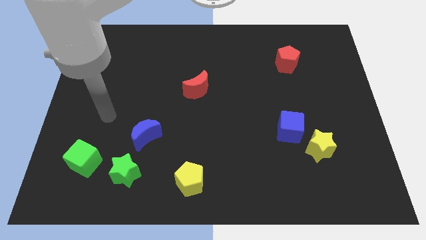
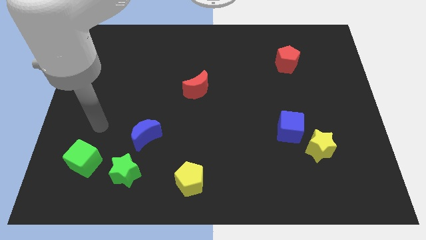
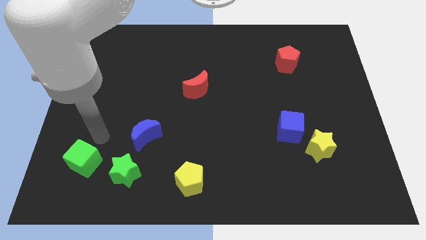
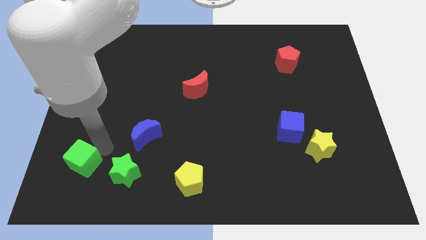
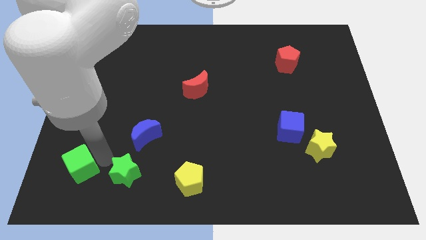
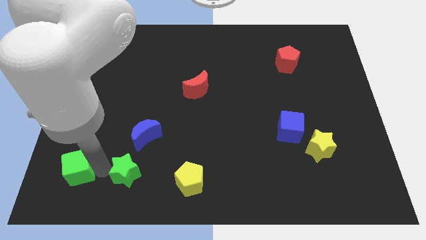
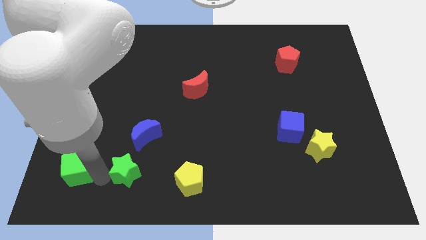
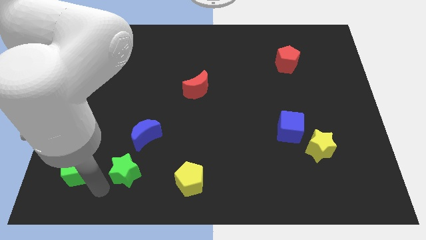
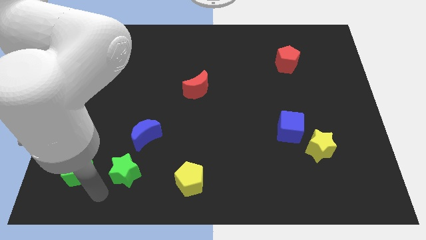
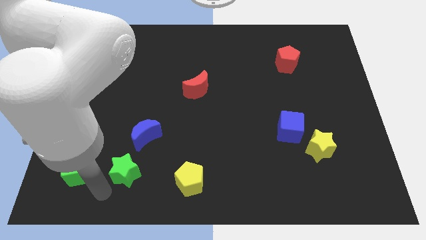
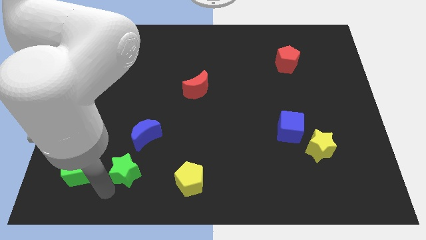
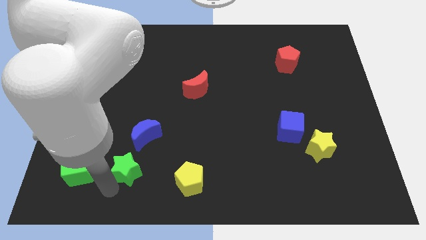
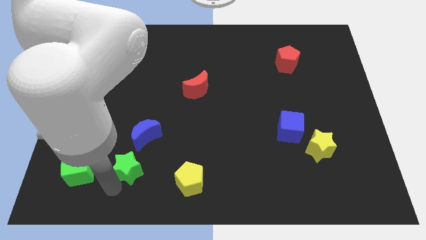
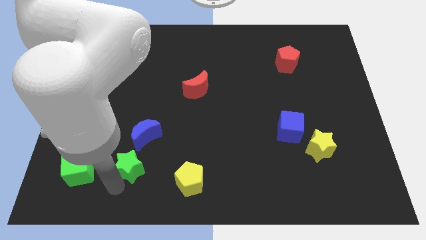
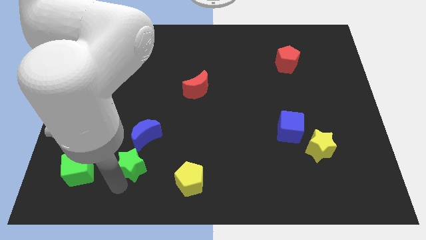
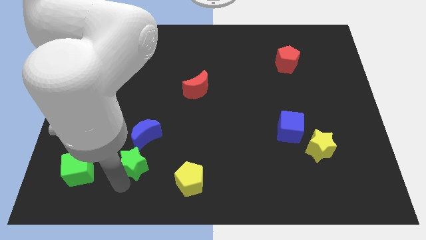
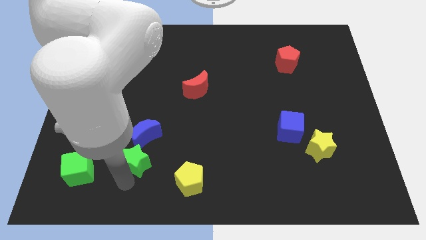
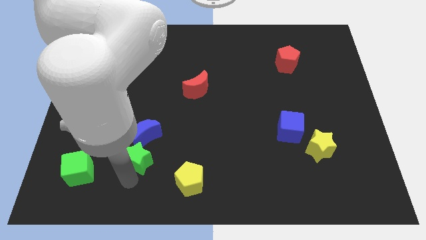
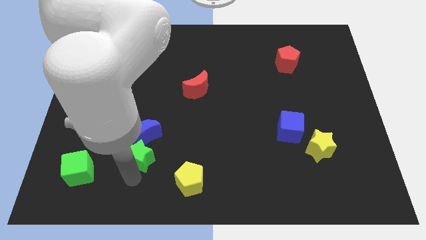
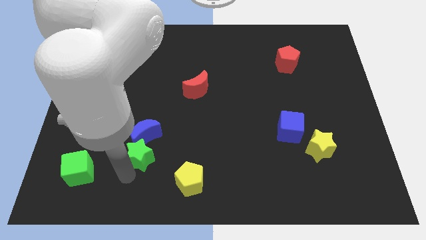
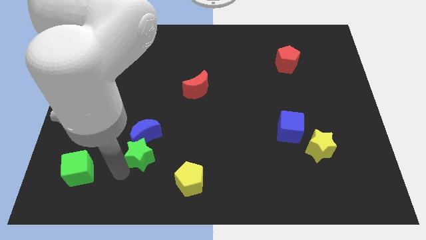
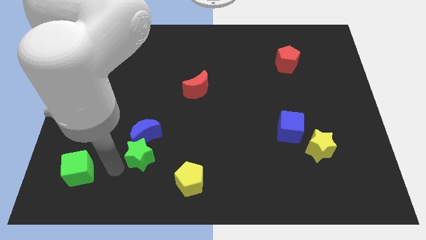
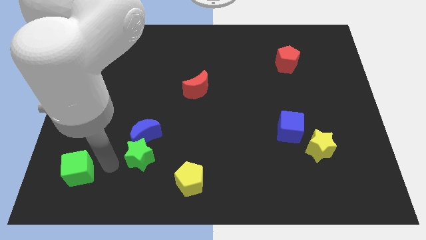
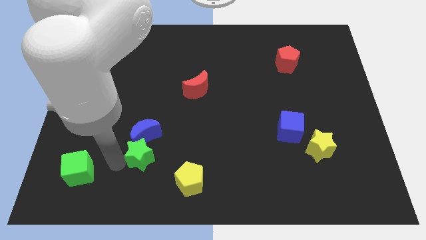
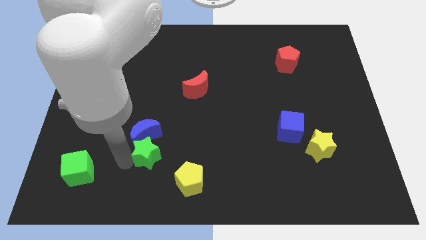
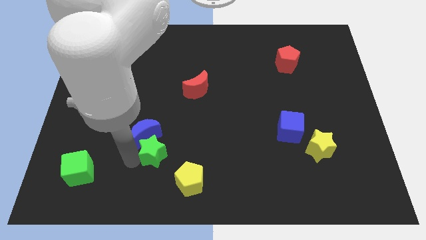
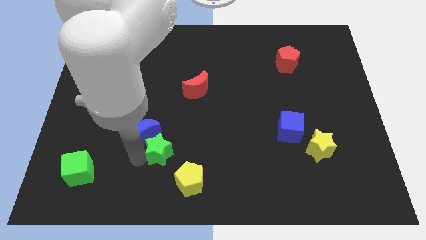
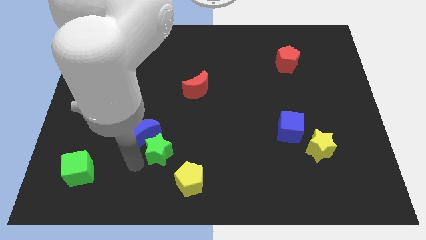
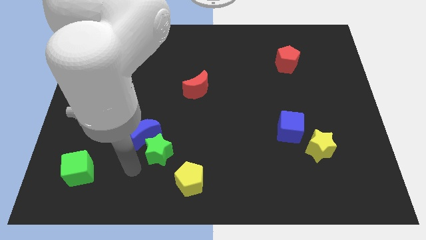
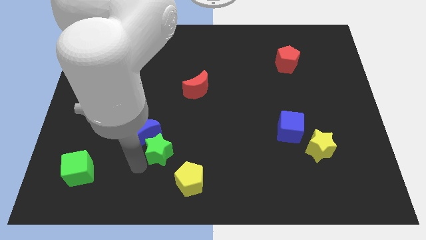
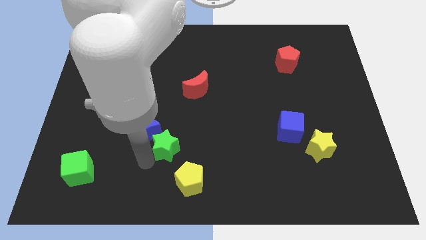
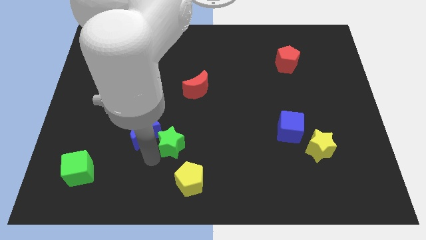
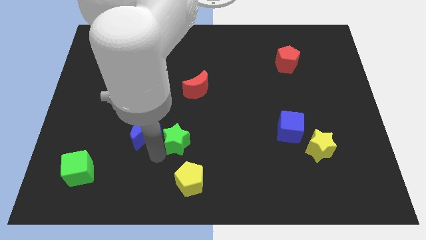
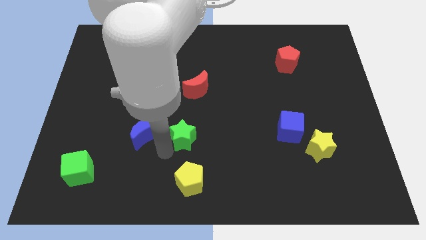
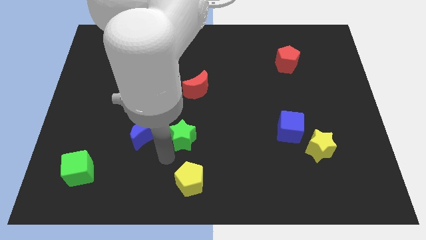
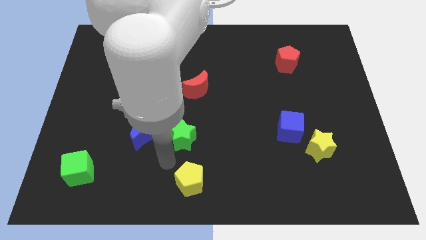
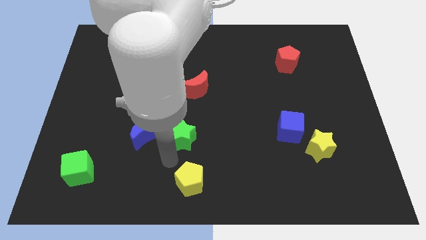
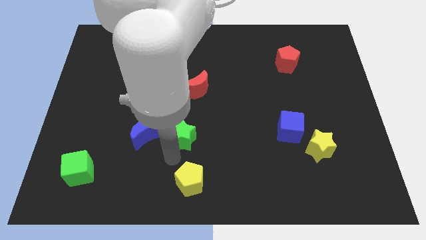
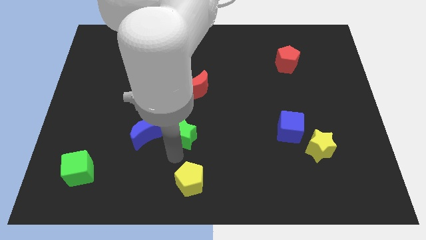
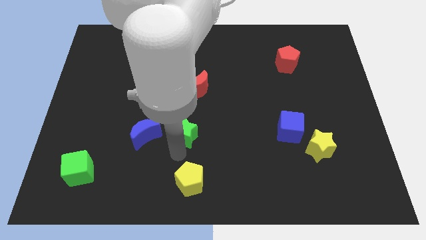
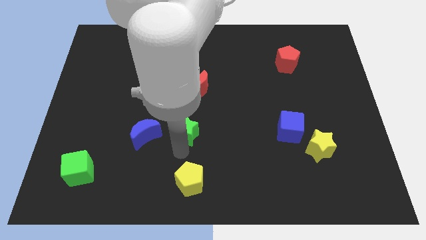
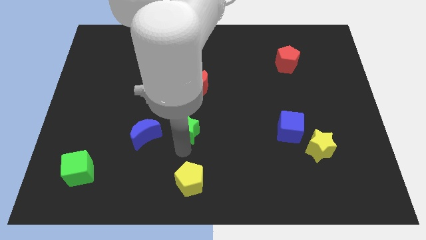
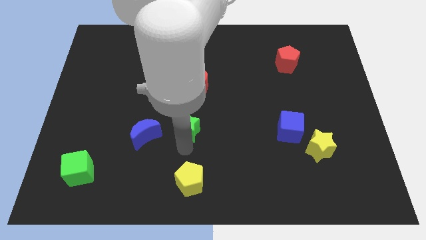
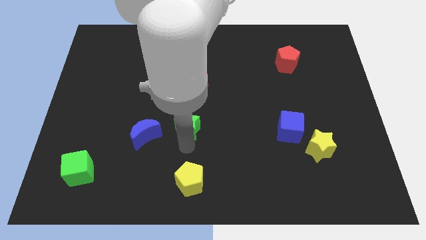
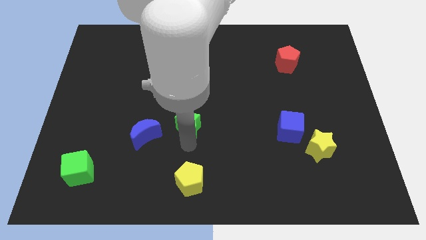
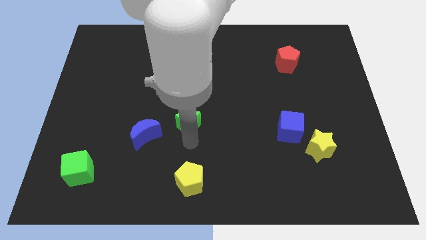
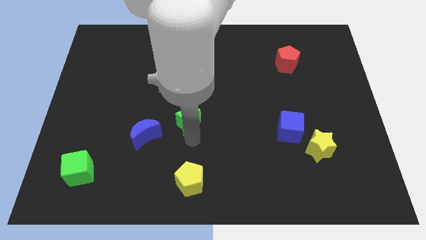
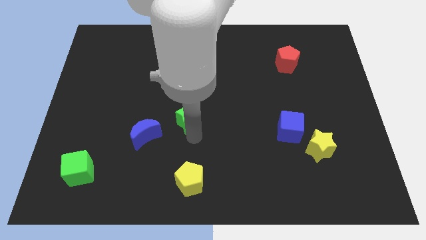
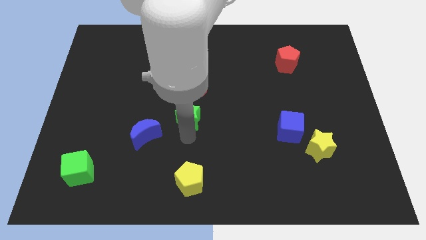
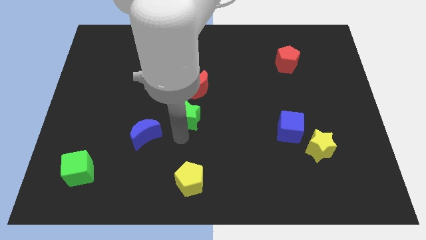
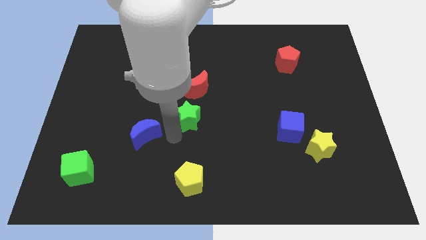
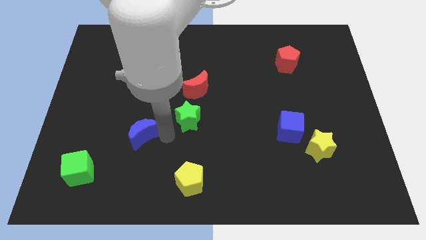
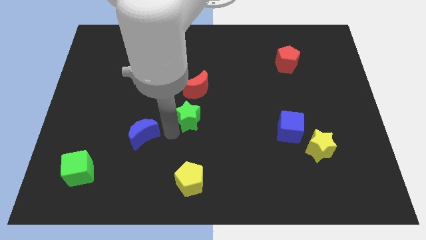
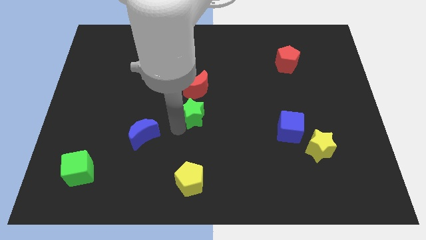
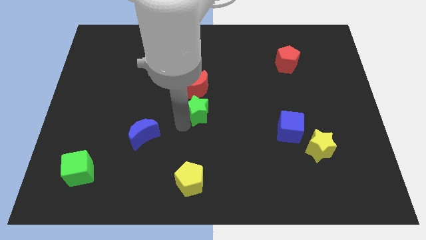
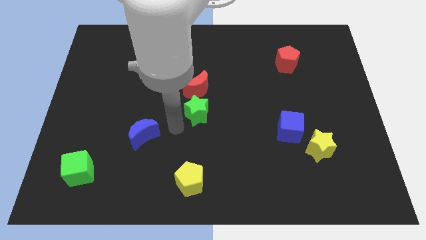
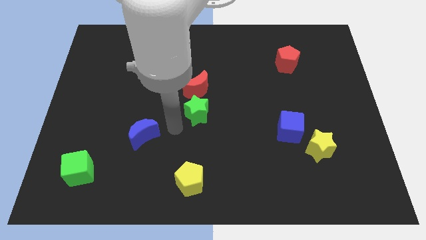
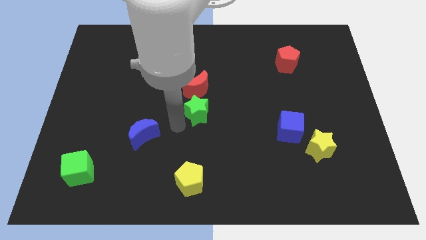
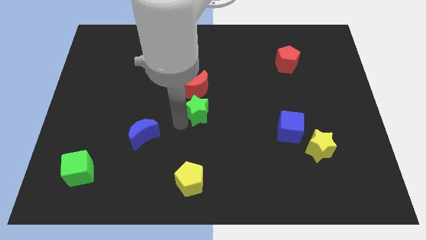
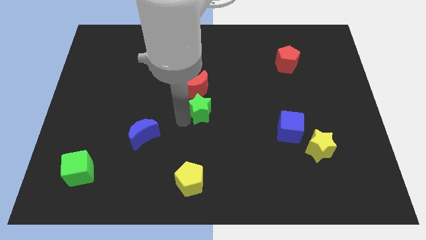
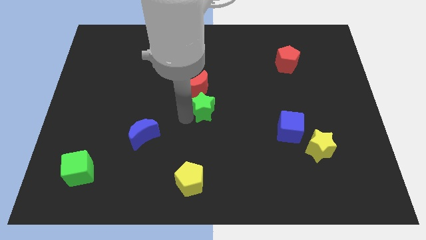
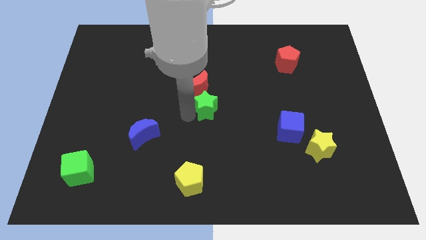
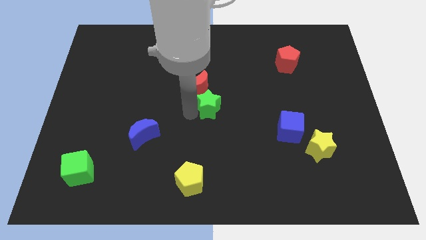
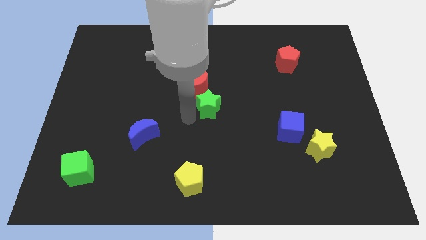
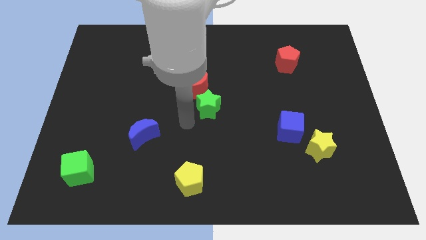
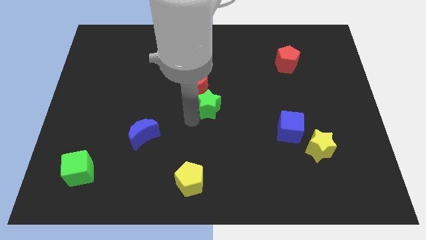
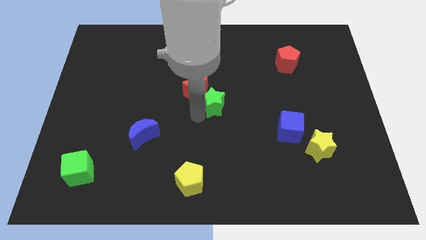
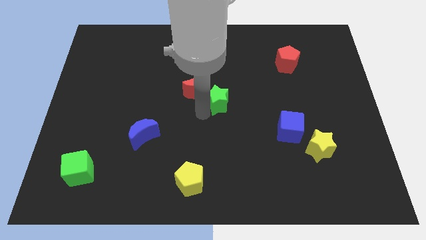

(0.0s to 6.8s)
put the green star just right of the red moon
